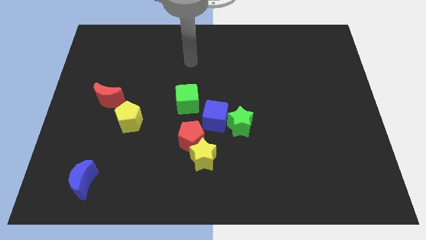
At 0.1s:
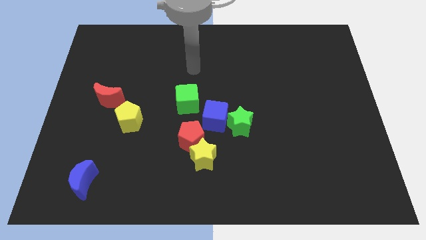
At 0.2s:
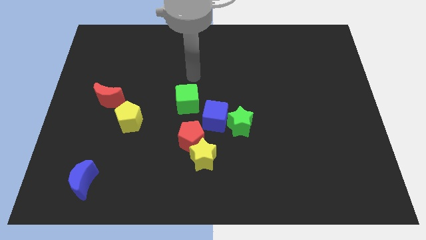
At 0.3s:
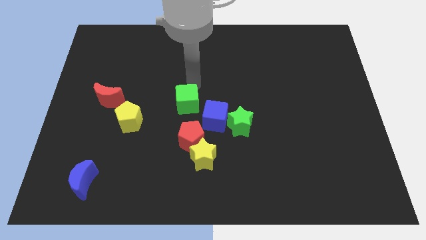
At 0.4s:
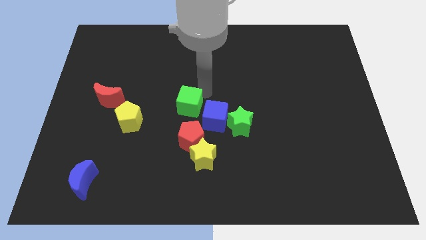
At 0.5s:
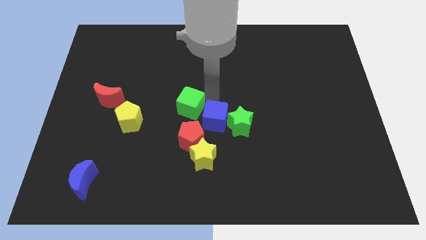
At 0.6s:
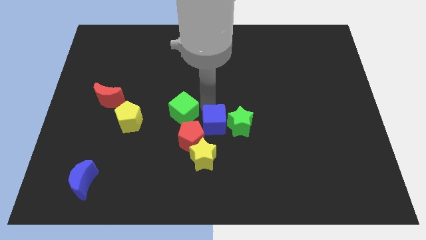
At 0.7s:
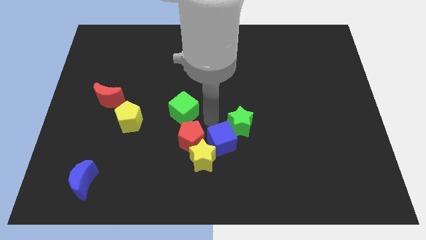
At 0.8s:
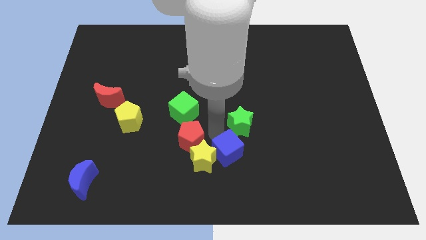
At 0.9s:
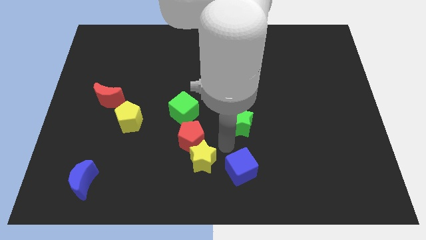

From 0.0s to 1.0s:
pull the green star apart from the blue cube

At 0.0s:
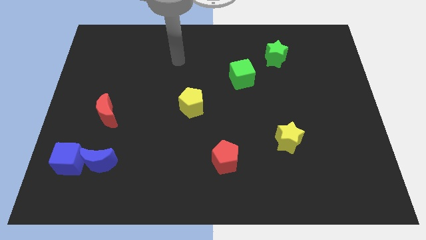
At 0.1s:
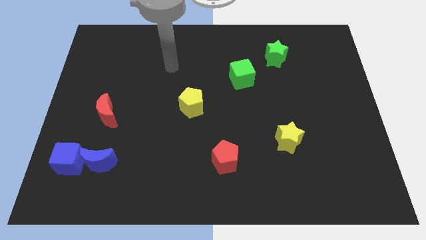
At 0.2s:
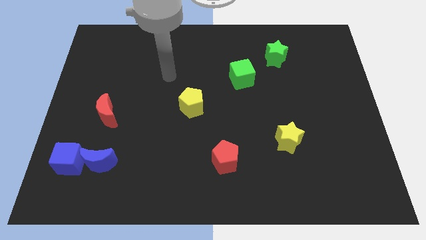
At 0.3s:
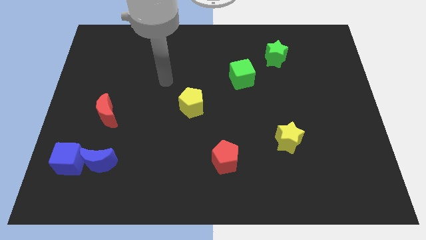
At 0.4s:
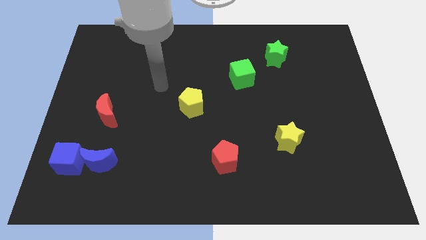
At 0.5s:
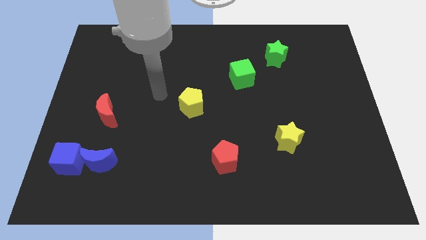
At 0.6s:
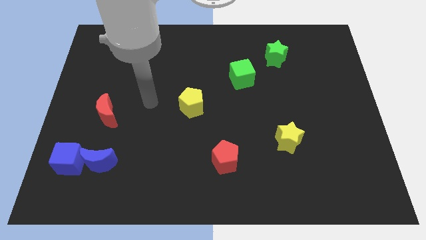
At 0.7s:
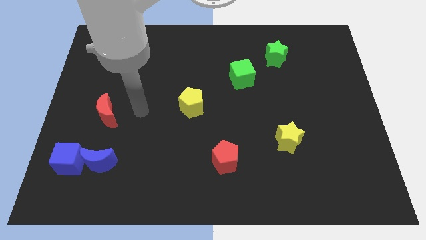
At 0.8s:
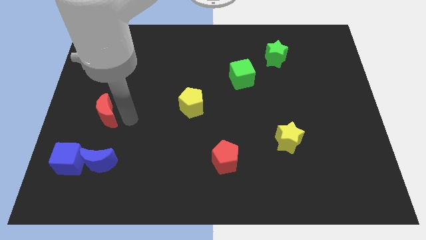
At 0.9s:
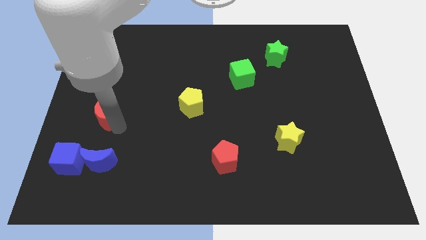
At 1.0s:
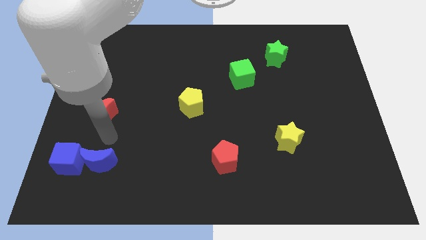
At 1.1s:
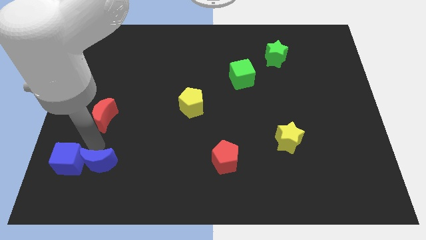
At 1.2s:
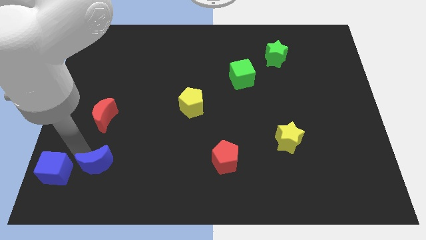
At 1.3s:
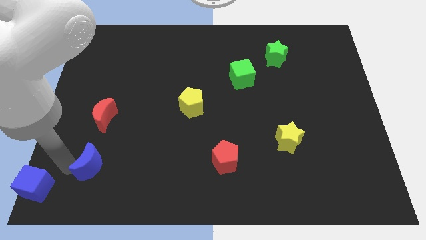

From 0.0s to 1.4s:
move the blue moon away from the blue cube

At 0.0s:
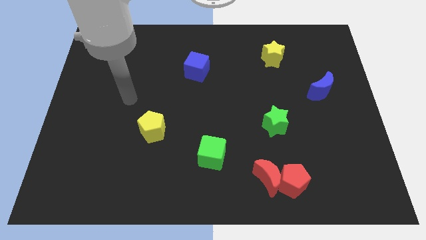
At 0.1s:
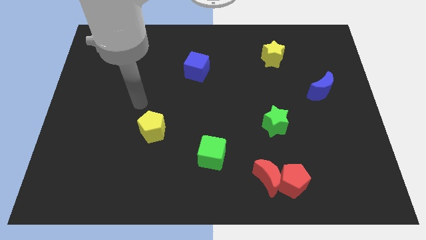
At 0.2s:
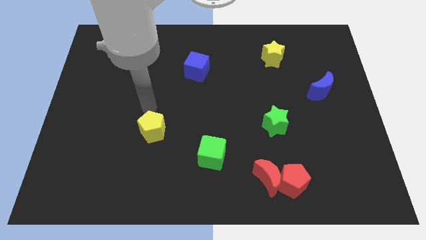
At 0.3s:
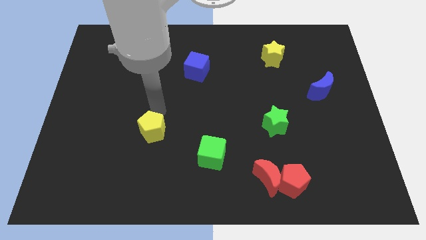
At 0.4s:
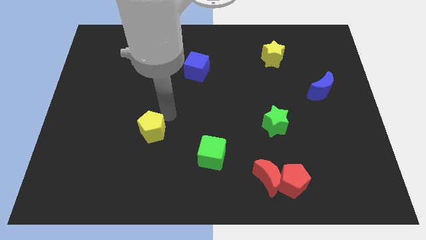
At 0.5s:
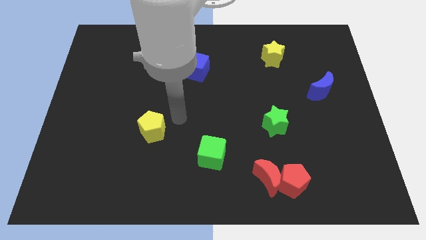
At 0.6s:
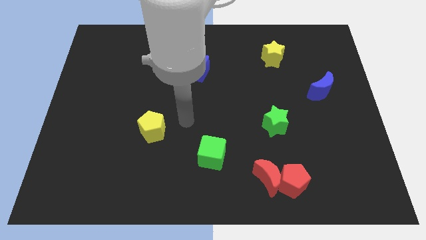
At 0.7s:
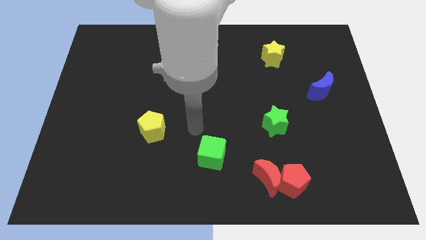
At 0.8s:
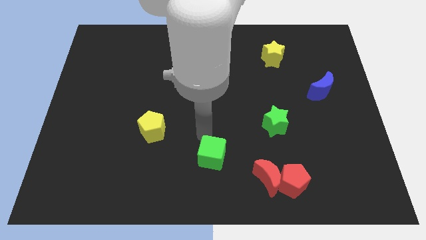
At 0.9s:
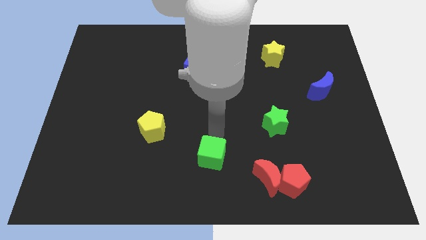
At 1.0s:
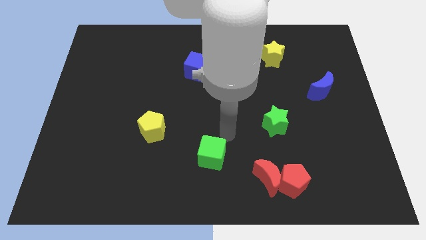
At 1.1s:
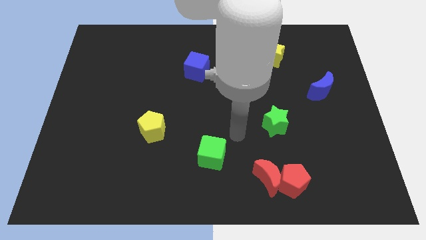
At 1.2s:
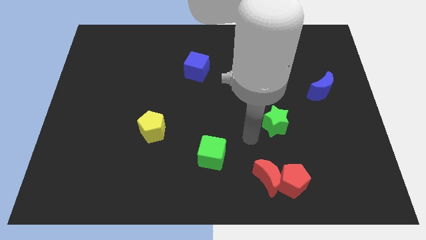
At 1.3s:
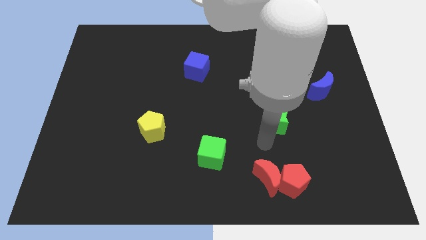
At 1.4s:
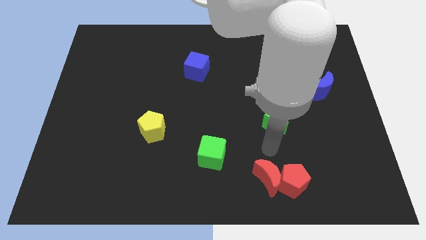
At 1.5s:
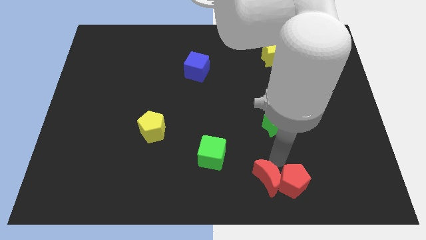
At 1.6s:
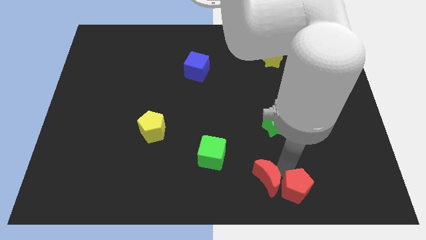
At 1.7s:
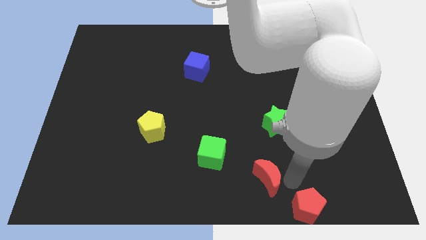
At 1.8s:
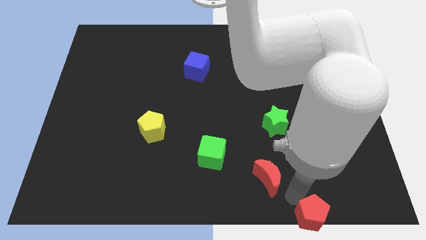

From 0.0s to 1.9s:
separate the red moon from the red pentagon

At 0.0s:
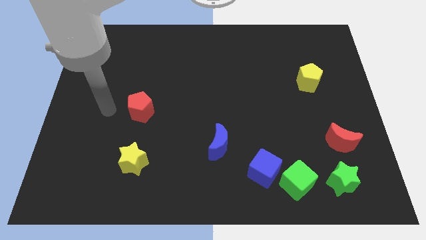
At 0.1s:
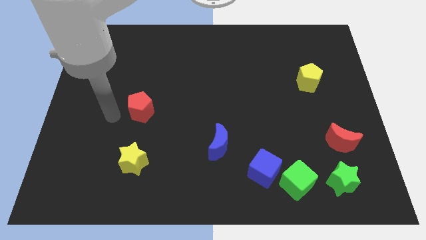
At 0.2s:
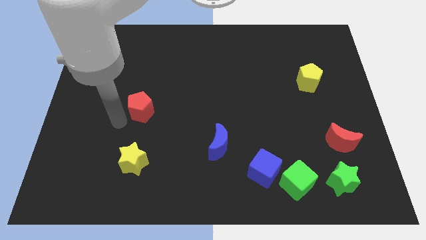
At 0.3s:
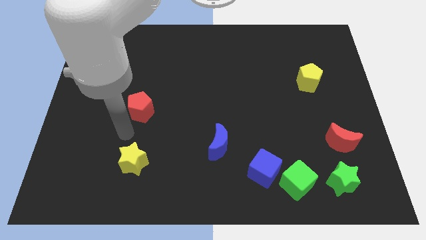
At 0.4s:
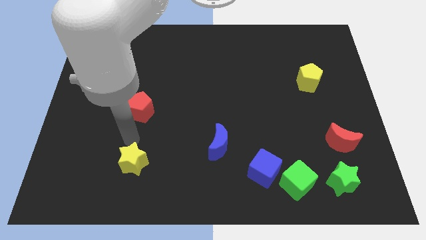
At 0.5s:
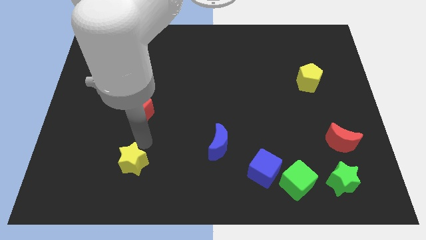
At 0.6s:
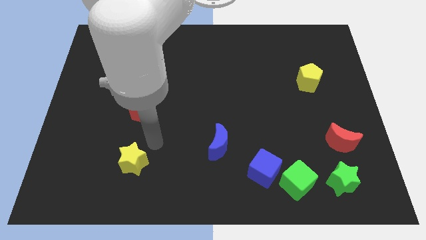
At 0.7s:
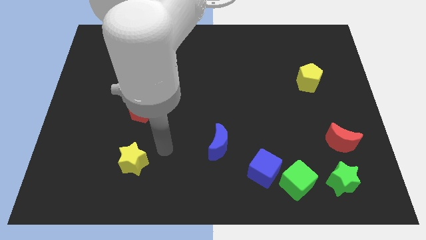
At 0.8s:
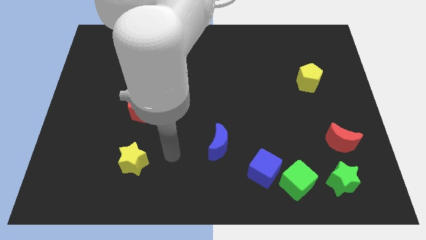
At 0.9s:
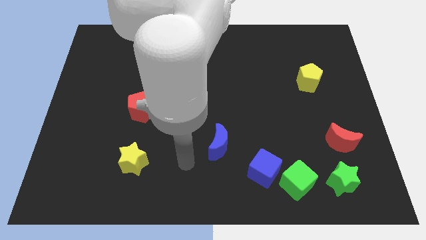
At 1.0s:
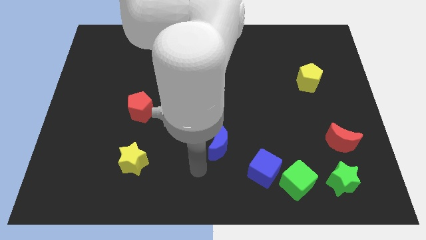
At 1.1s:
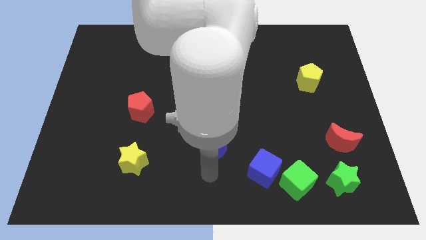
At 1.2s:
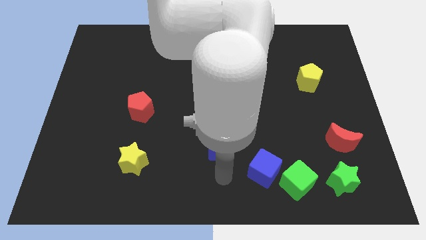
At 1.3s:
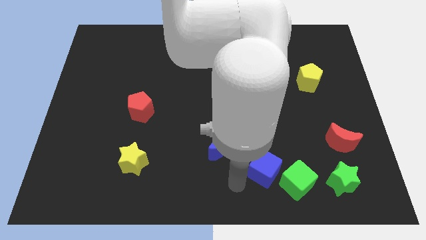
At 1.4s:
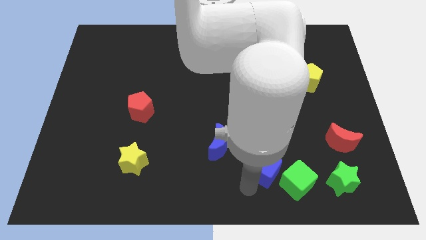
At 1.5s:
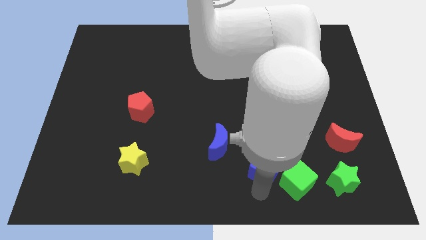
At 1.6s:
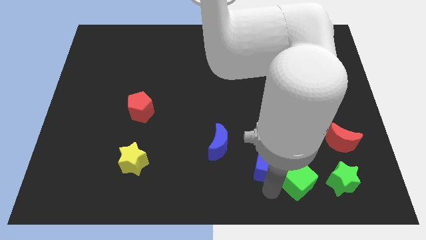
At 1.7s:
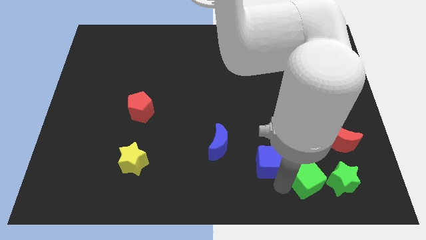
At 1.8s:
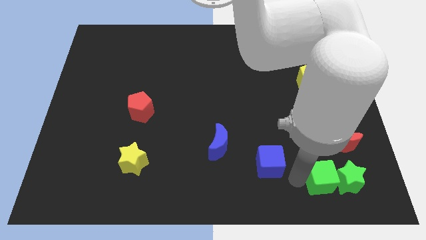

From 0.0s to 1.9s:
separate the blue cube from the green cube

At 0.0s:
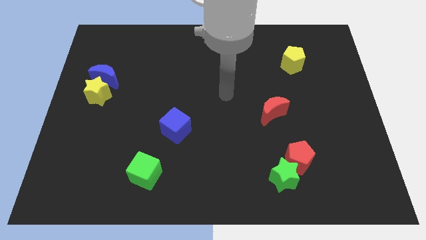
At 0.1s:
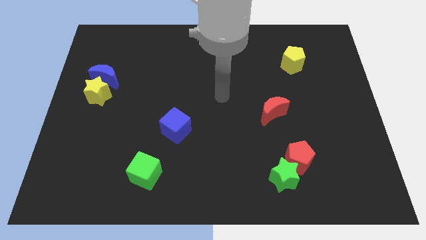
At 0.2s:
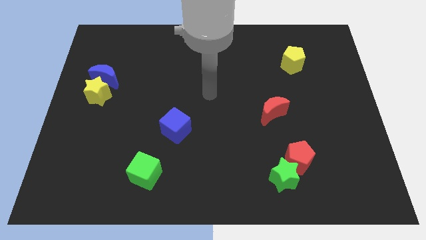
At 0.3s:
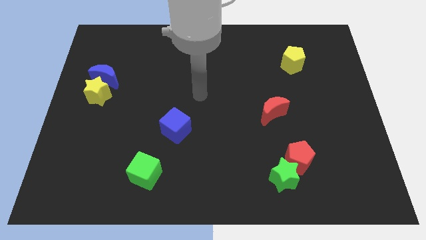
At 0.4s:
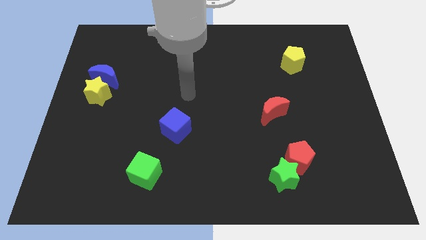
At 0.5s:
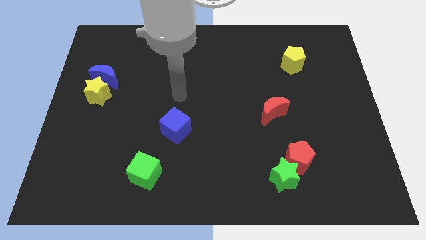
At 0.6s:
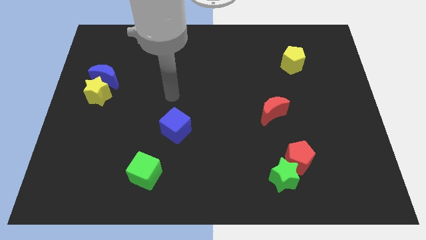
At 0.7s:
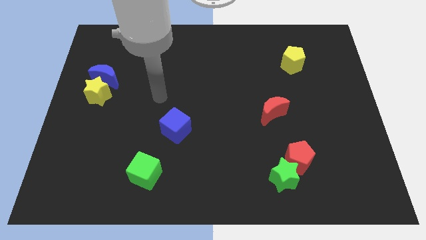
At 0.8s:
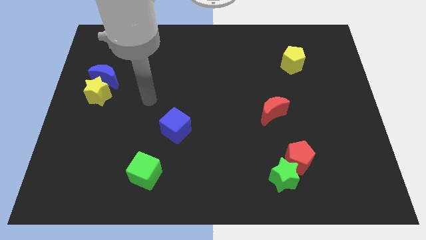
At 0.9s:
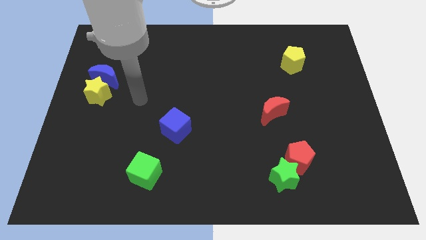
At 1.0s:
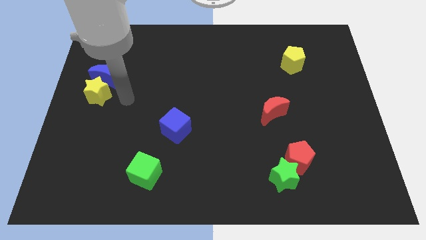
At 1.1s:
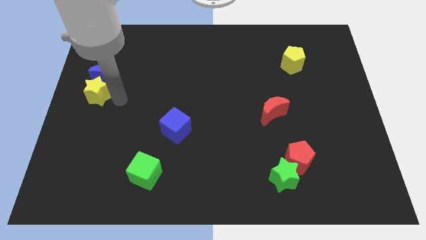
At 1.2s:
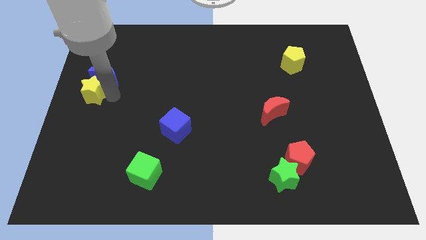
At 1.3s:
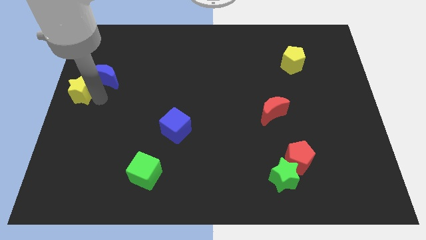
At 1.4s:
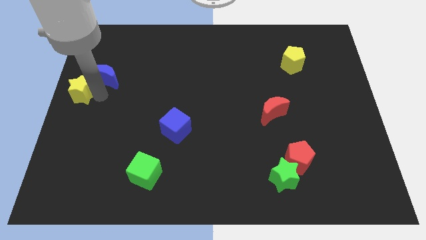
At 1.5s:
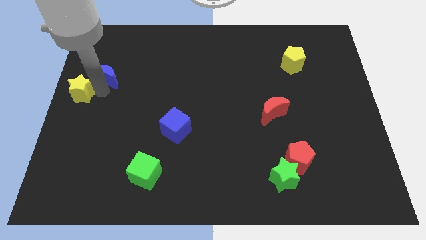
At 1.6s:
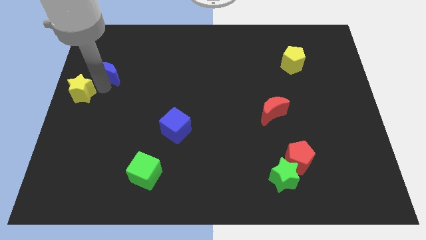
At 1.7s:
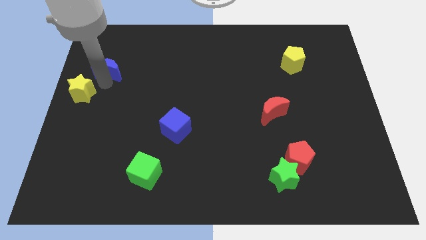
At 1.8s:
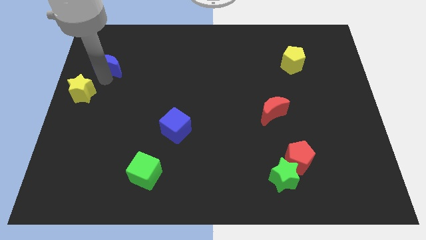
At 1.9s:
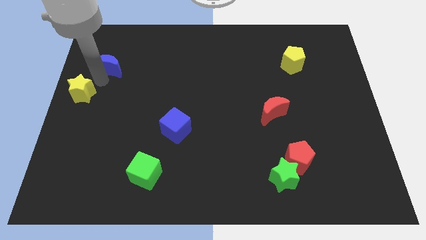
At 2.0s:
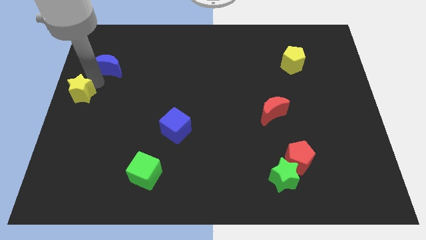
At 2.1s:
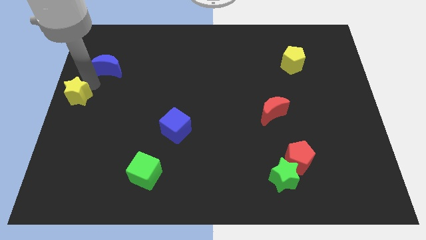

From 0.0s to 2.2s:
separate the blue moon from the yellow star

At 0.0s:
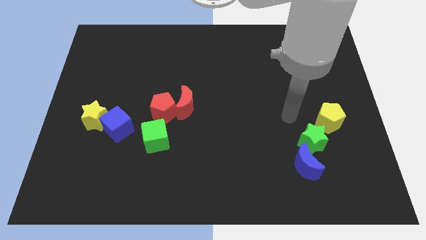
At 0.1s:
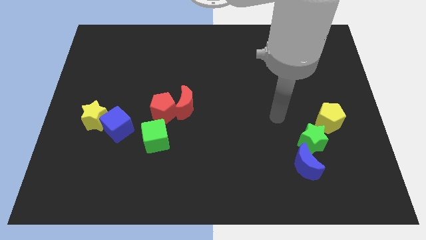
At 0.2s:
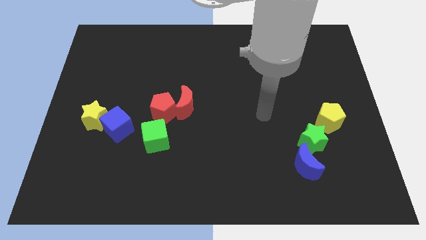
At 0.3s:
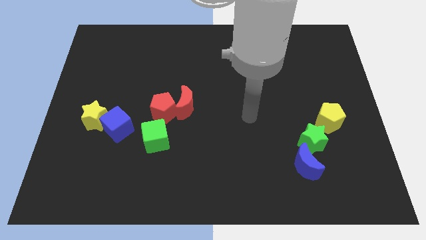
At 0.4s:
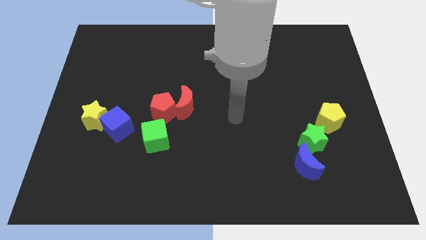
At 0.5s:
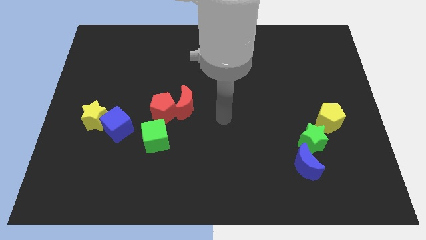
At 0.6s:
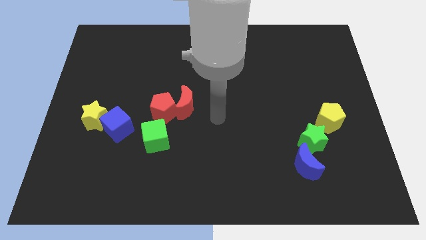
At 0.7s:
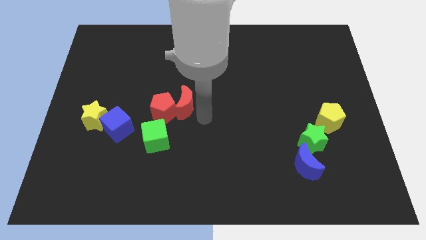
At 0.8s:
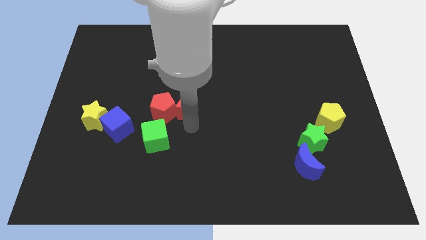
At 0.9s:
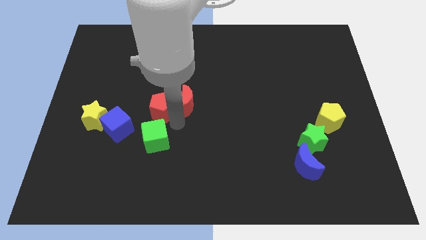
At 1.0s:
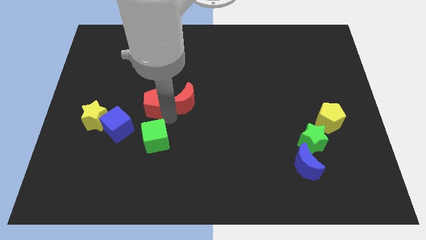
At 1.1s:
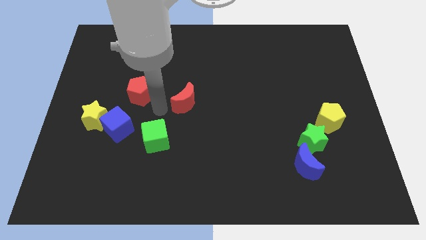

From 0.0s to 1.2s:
move the red moon away from the red pentagon
